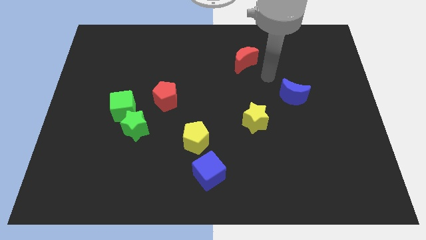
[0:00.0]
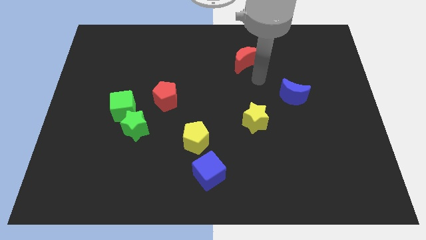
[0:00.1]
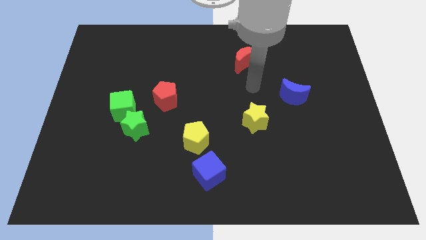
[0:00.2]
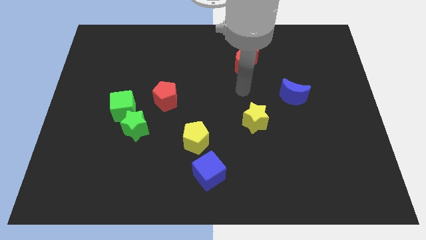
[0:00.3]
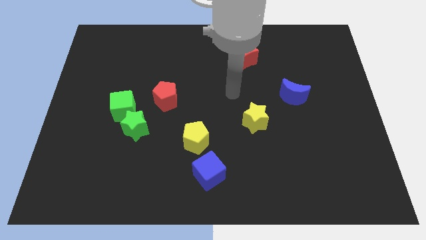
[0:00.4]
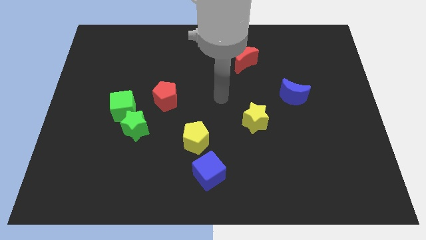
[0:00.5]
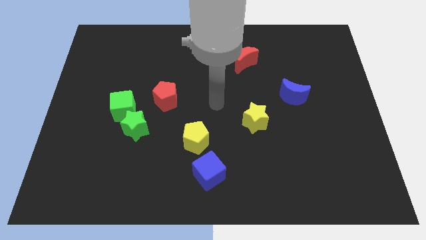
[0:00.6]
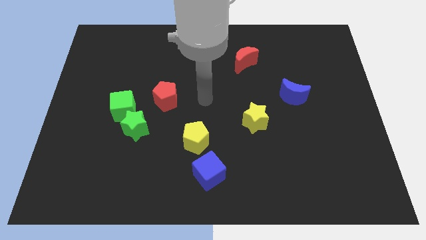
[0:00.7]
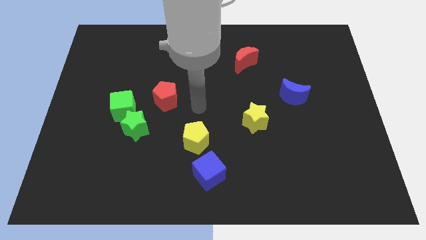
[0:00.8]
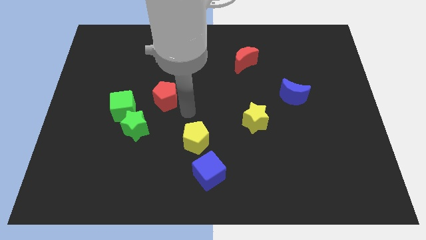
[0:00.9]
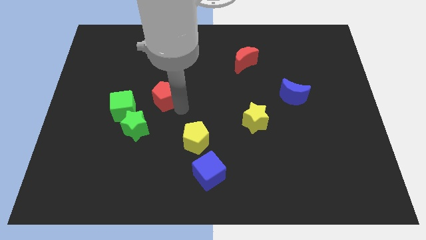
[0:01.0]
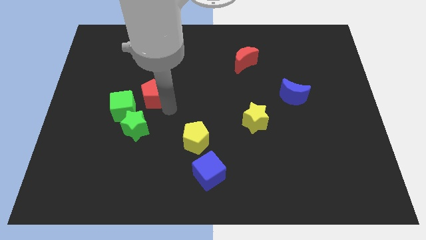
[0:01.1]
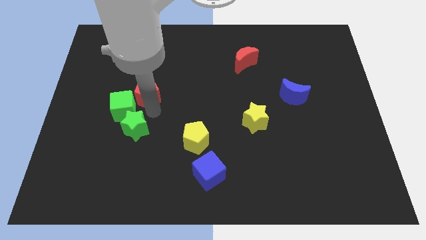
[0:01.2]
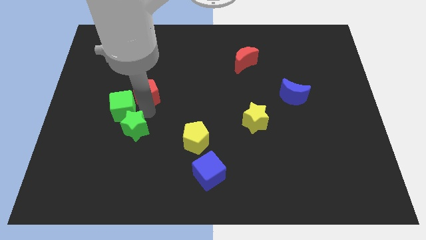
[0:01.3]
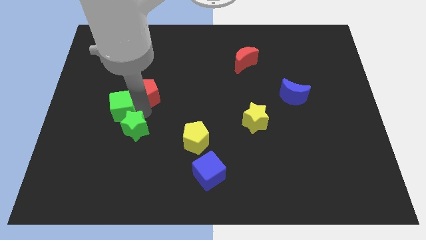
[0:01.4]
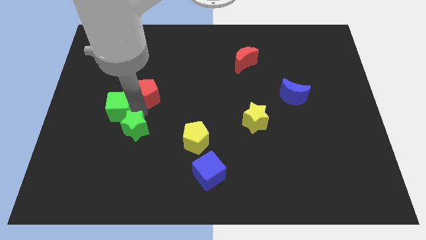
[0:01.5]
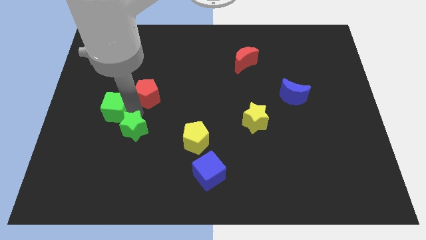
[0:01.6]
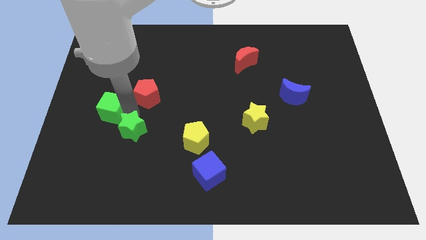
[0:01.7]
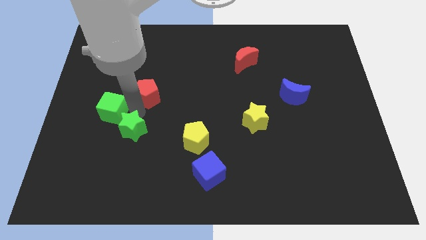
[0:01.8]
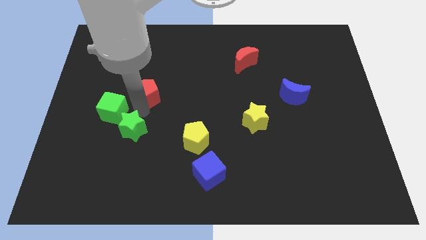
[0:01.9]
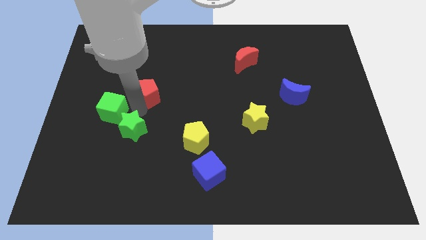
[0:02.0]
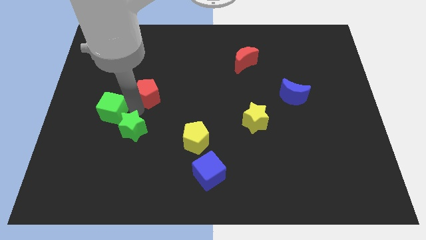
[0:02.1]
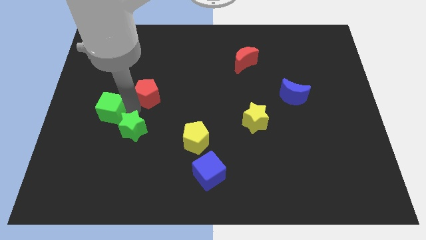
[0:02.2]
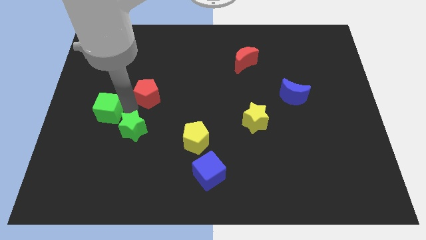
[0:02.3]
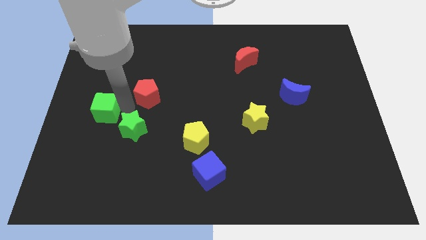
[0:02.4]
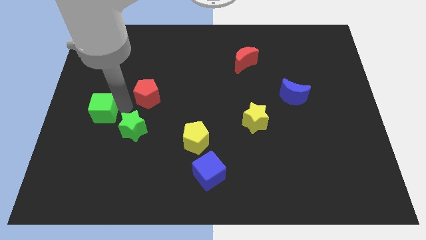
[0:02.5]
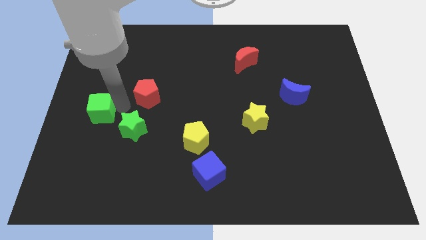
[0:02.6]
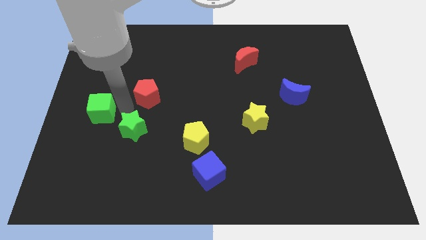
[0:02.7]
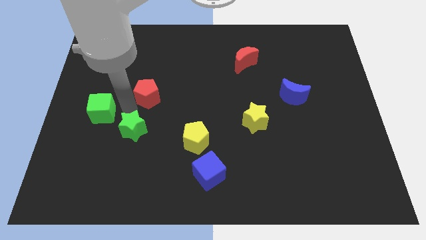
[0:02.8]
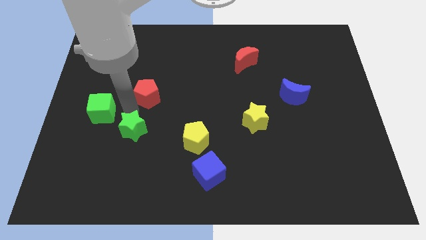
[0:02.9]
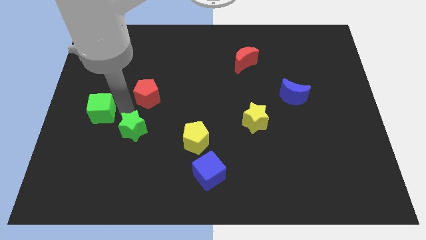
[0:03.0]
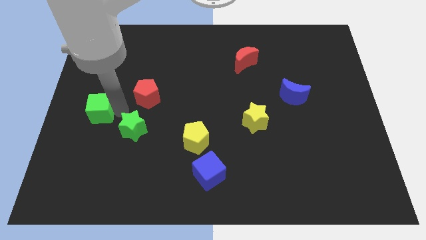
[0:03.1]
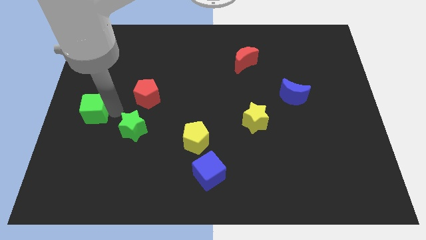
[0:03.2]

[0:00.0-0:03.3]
separate the green cube from the green star and red pentagon

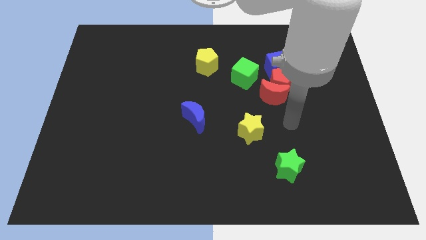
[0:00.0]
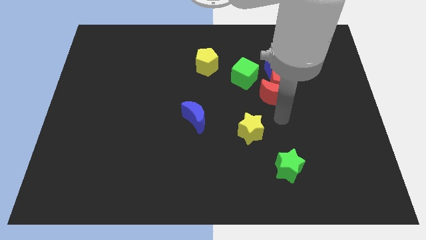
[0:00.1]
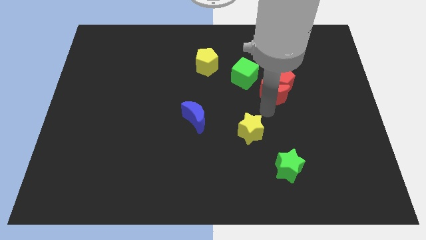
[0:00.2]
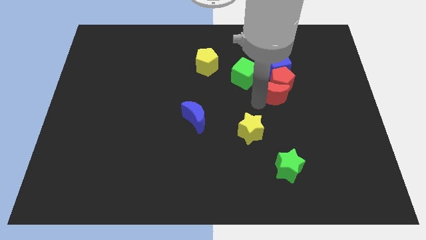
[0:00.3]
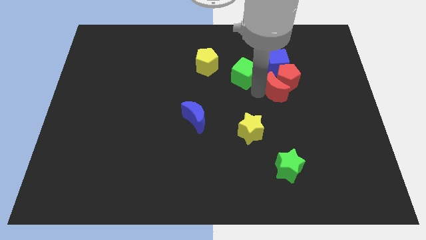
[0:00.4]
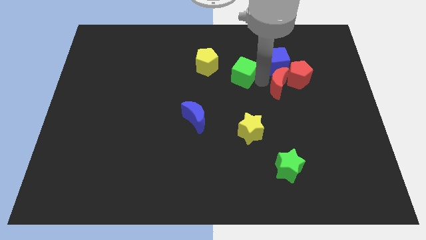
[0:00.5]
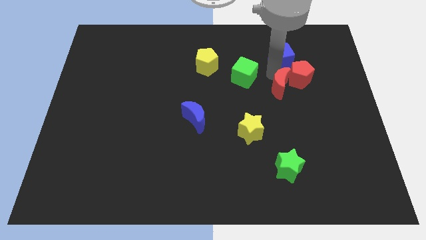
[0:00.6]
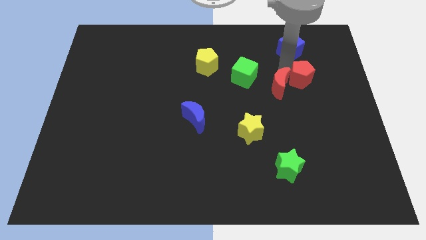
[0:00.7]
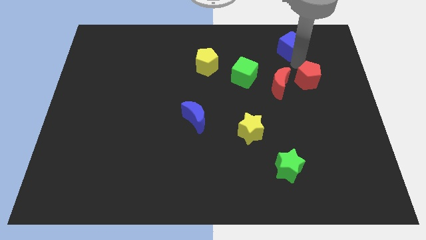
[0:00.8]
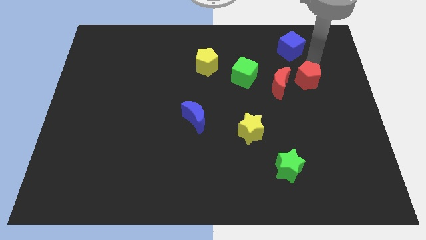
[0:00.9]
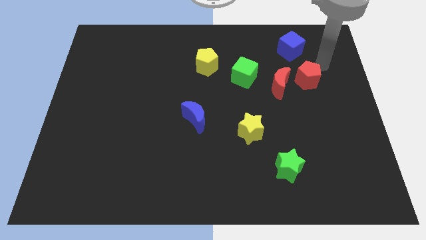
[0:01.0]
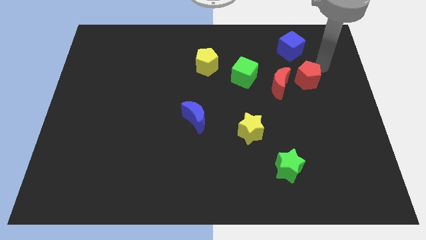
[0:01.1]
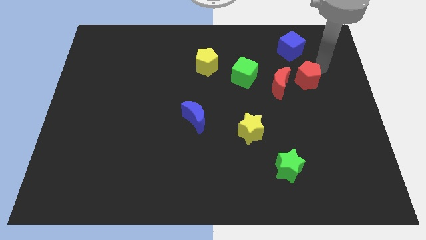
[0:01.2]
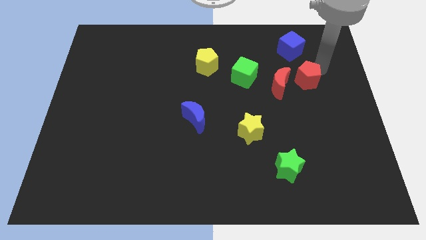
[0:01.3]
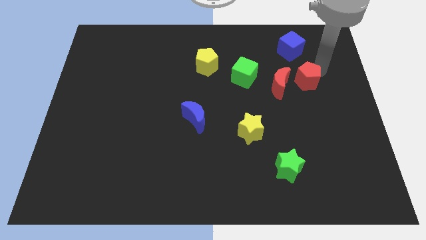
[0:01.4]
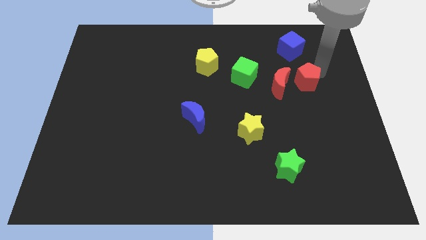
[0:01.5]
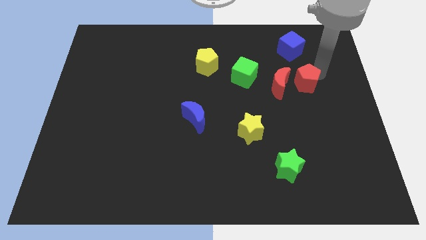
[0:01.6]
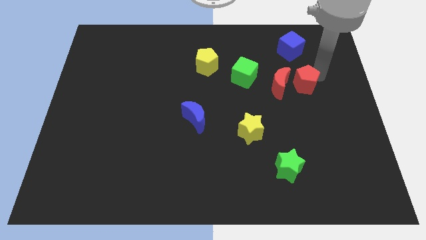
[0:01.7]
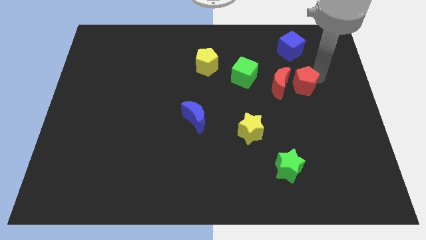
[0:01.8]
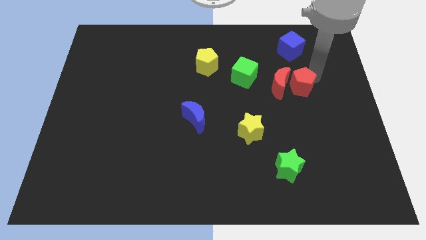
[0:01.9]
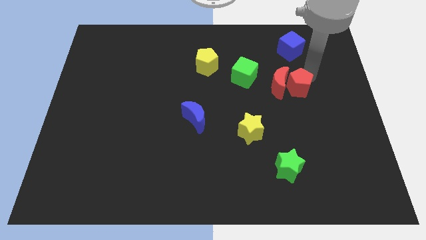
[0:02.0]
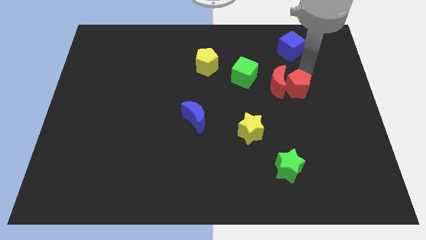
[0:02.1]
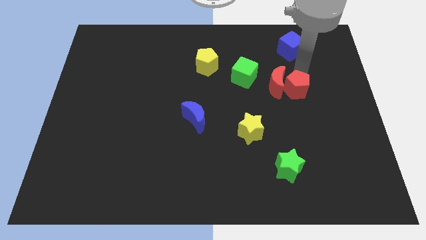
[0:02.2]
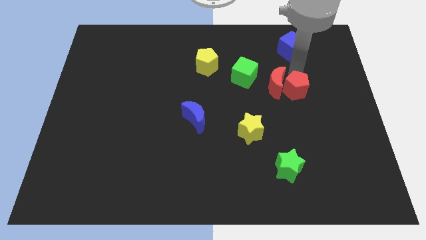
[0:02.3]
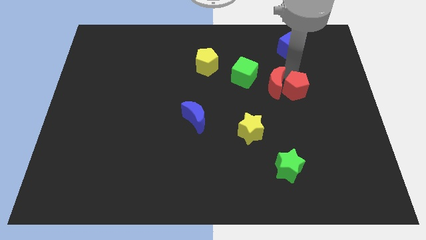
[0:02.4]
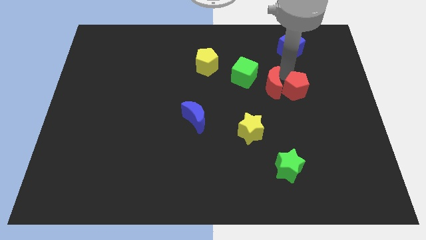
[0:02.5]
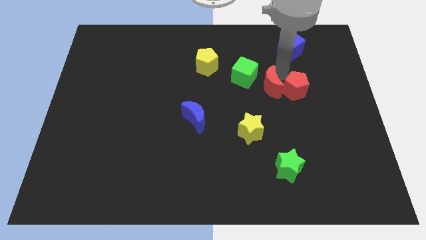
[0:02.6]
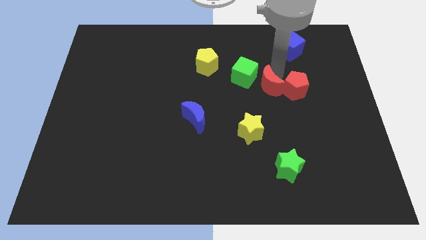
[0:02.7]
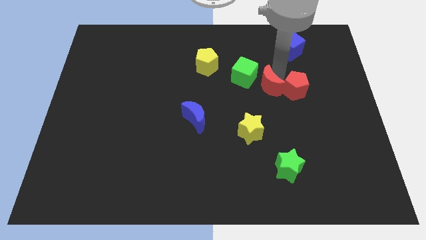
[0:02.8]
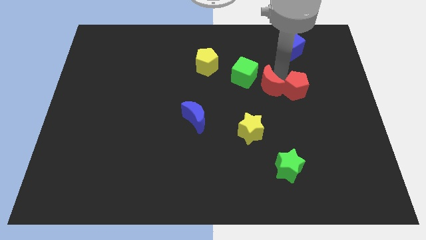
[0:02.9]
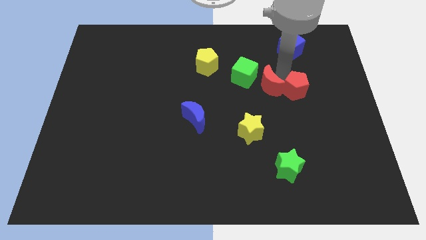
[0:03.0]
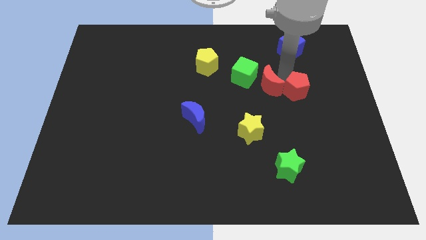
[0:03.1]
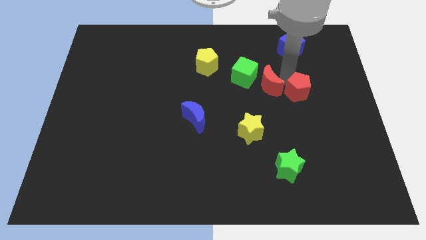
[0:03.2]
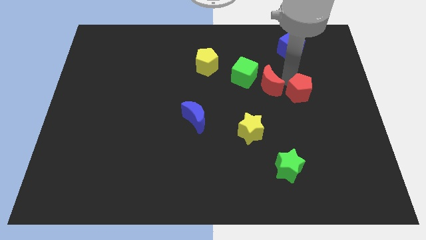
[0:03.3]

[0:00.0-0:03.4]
move the red pentagon away from the group

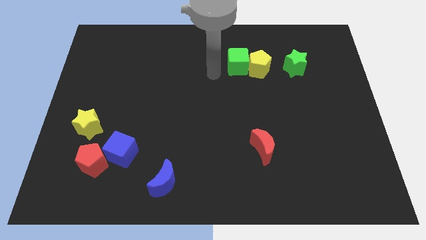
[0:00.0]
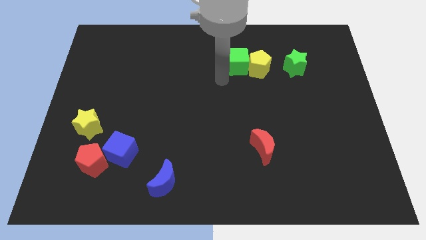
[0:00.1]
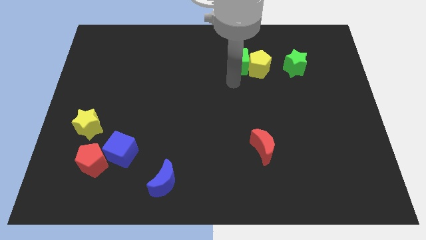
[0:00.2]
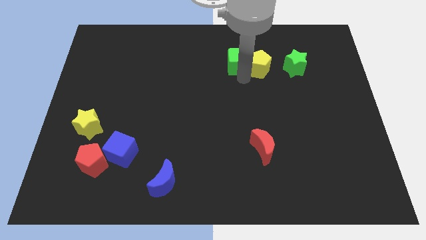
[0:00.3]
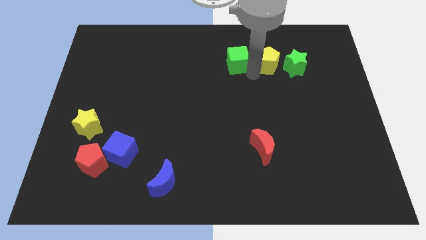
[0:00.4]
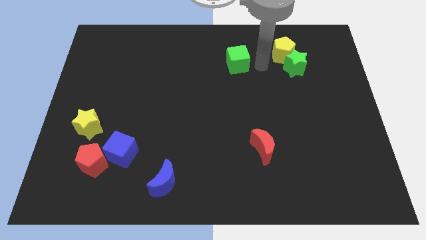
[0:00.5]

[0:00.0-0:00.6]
separate the green cube from the yellow pentagon

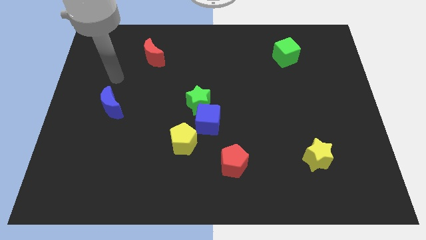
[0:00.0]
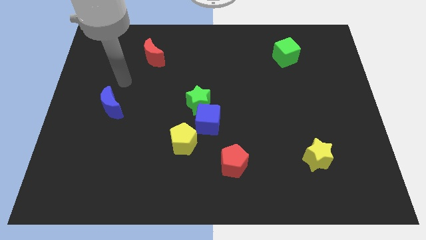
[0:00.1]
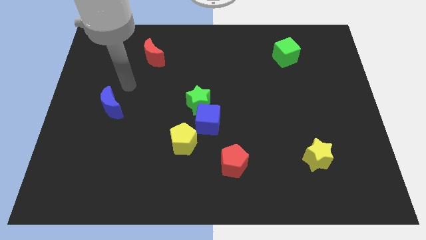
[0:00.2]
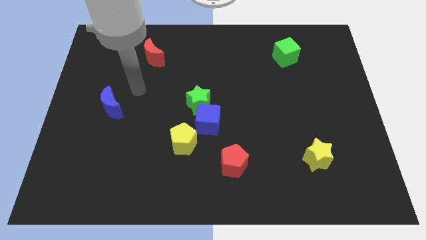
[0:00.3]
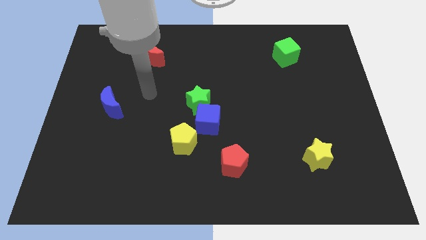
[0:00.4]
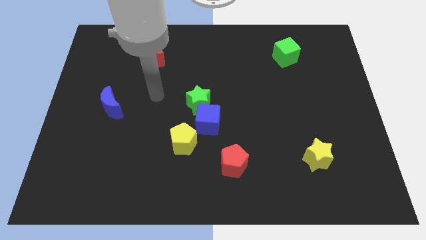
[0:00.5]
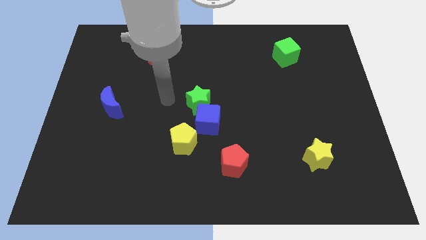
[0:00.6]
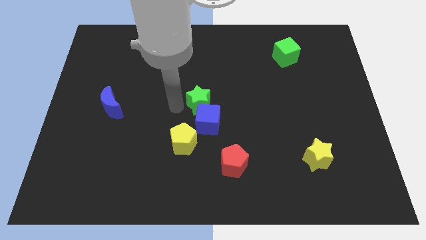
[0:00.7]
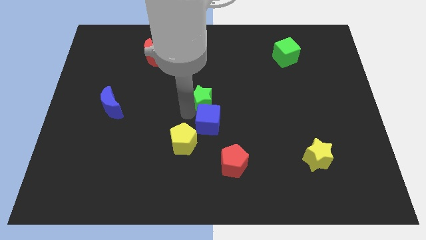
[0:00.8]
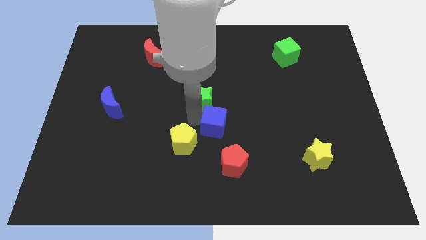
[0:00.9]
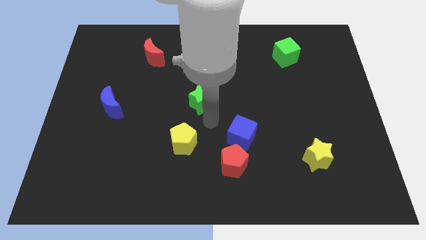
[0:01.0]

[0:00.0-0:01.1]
separate the green star from the blue cube

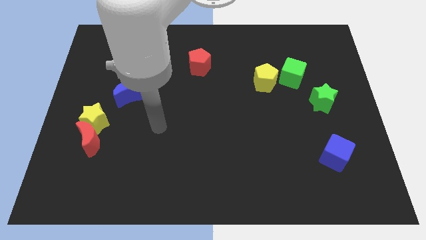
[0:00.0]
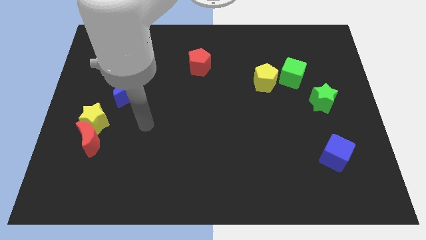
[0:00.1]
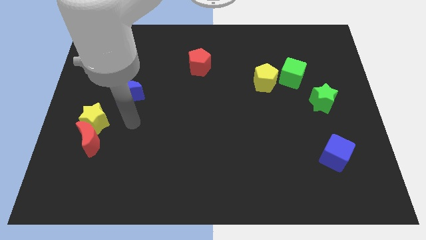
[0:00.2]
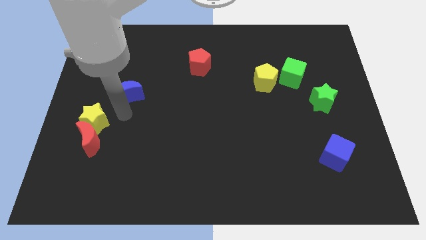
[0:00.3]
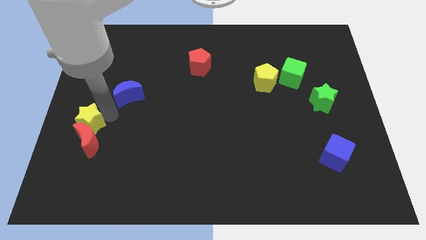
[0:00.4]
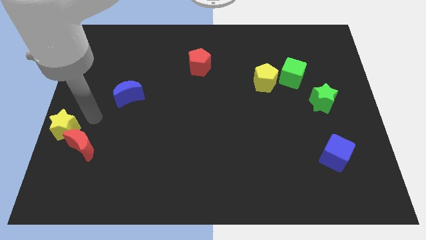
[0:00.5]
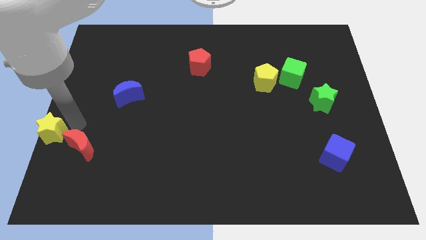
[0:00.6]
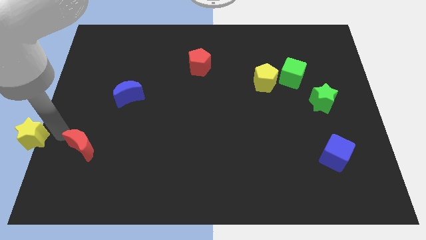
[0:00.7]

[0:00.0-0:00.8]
move the red moon away from the yellow star

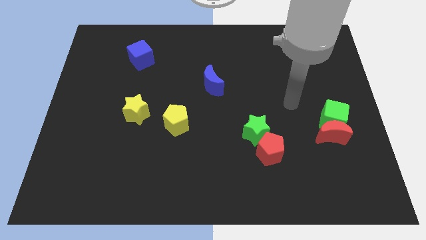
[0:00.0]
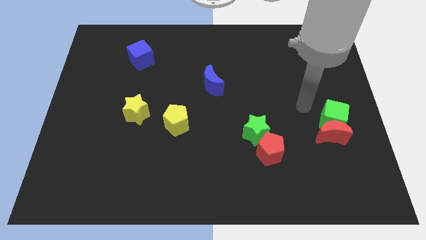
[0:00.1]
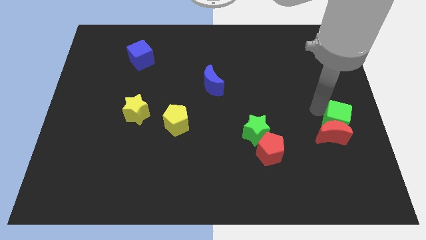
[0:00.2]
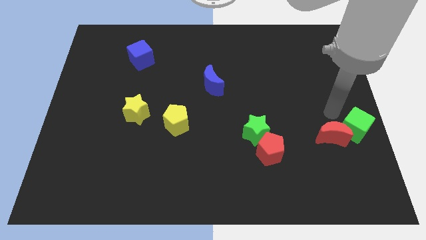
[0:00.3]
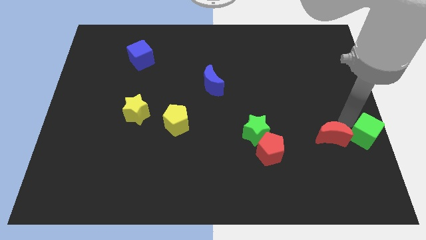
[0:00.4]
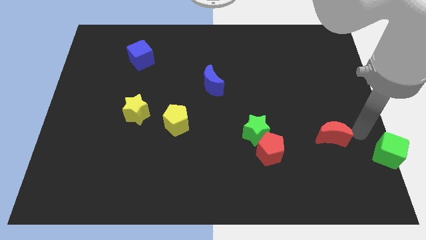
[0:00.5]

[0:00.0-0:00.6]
separate the red moon from the green cube
